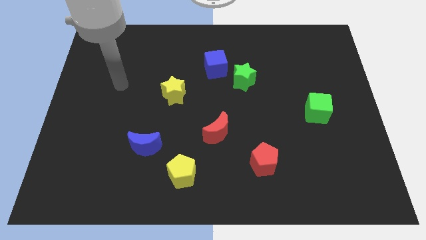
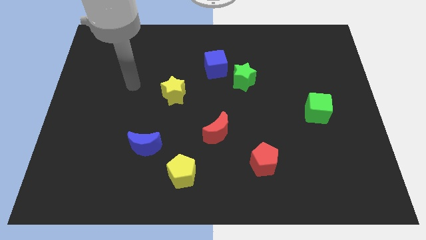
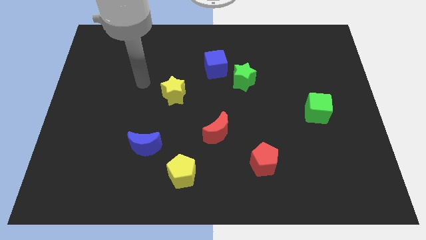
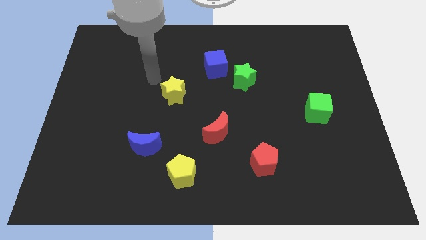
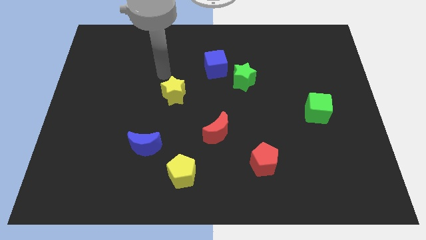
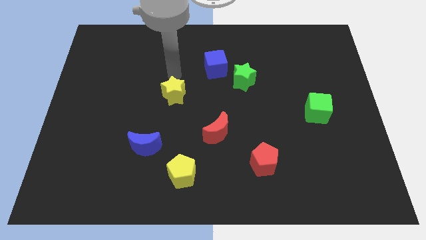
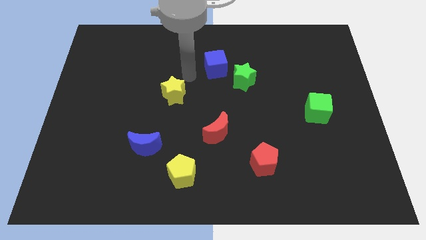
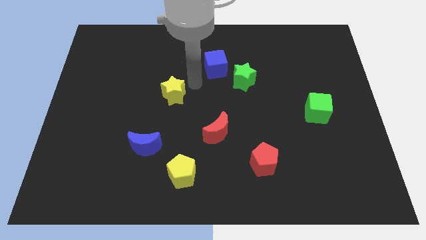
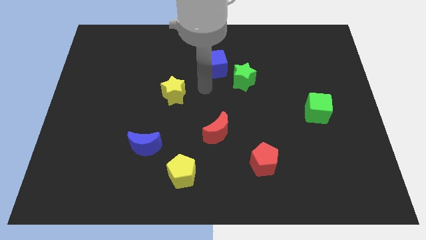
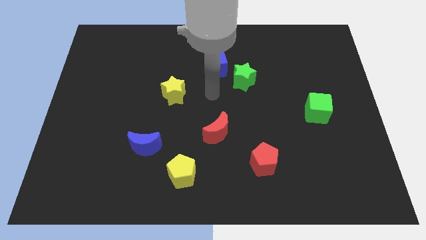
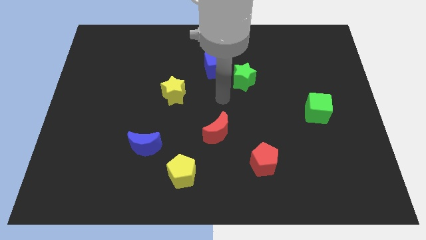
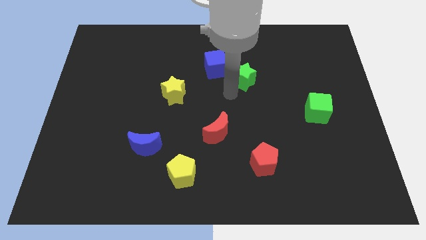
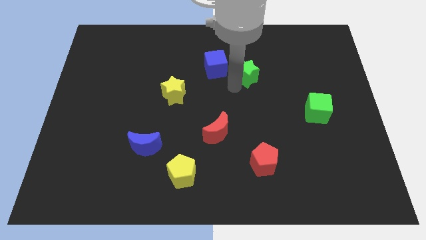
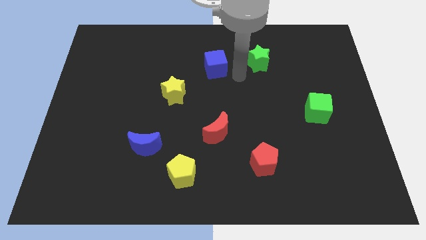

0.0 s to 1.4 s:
pull the blue cube apart from the green star

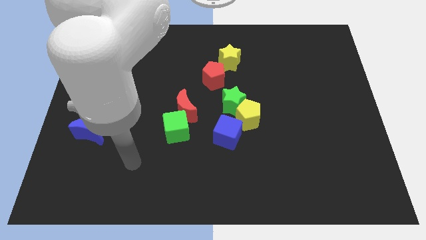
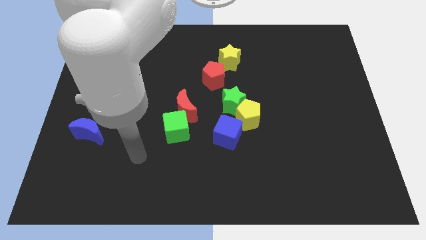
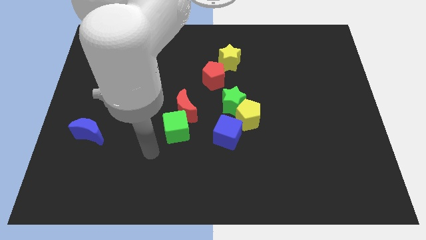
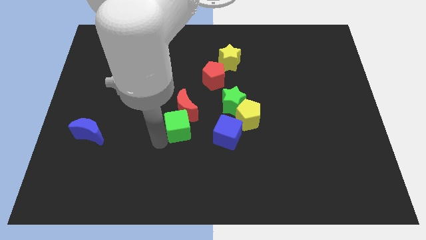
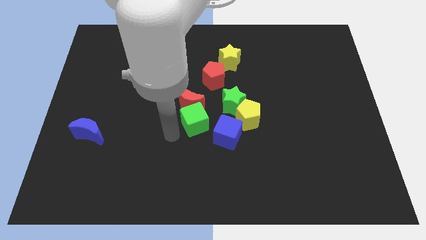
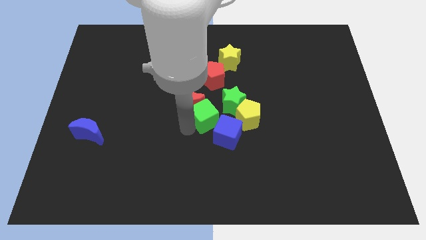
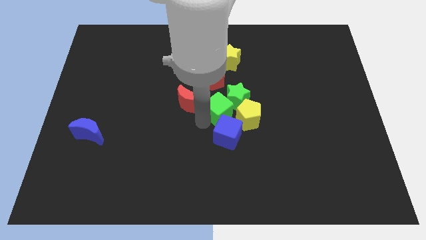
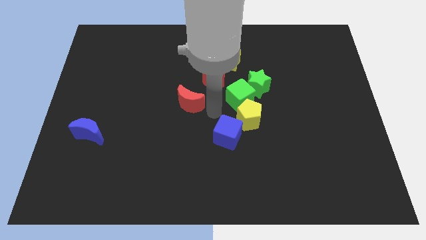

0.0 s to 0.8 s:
pull the red moon apart from the green cube

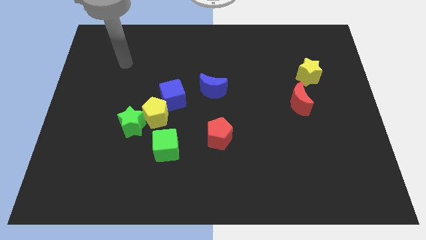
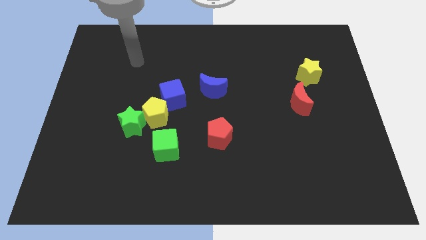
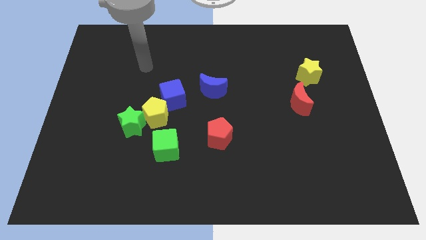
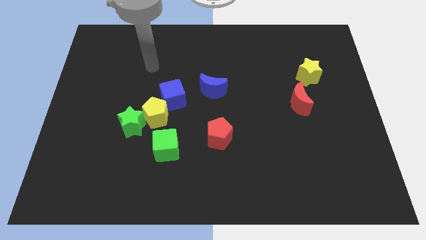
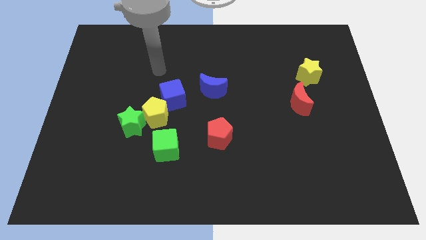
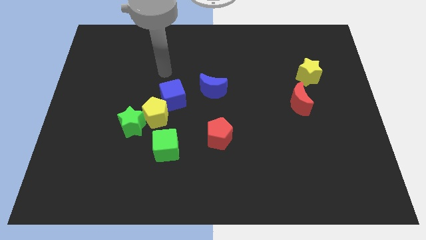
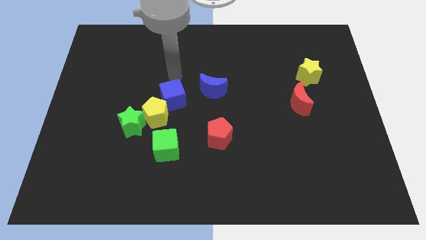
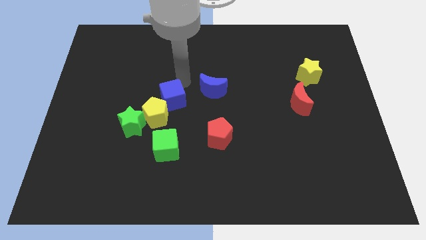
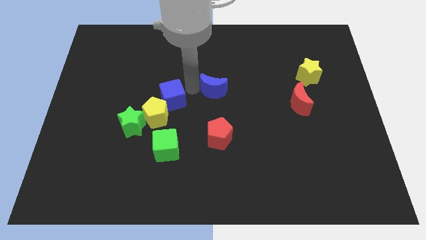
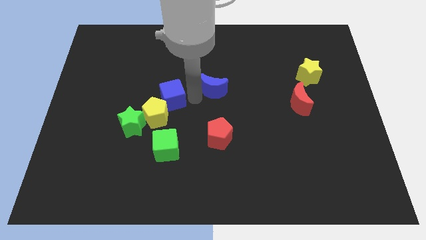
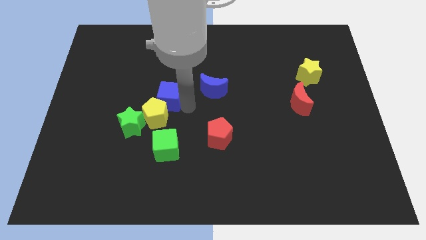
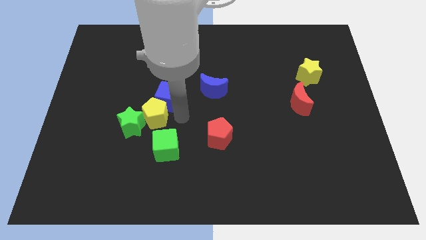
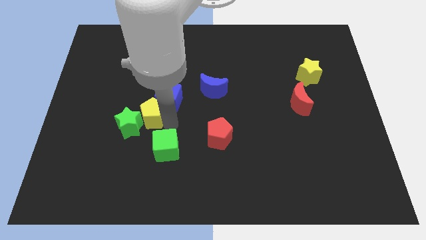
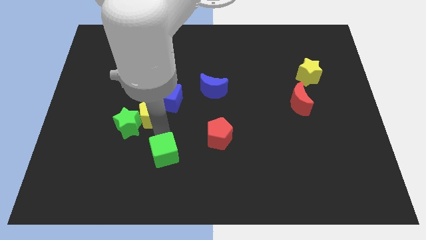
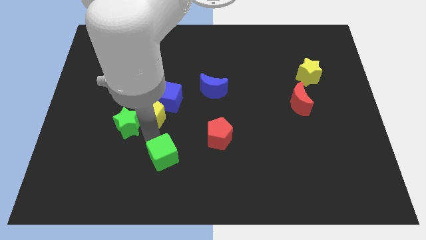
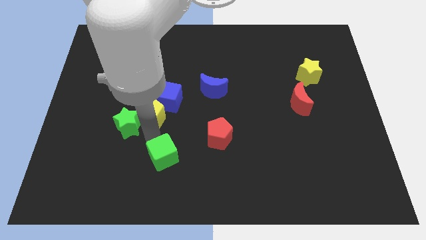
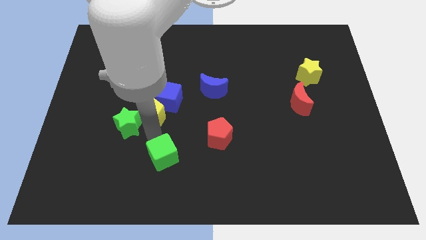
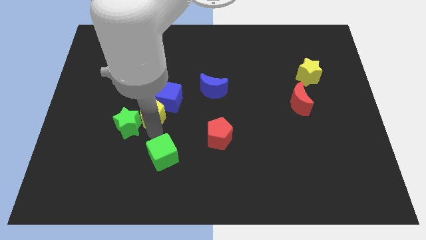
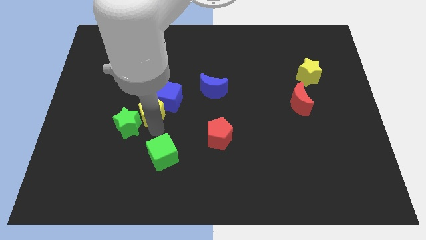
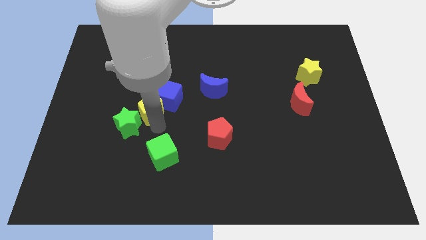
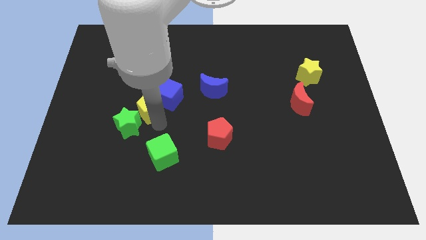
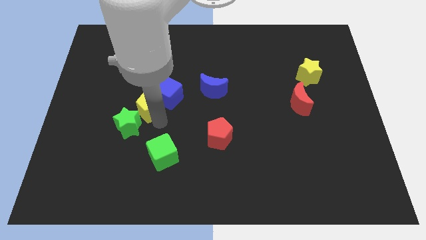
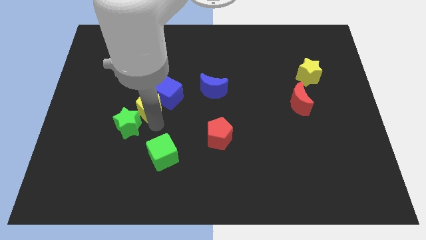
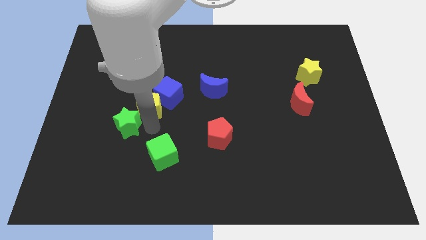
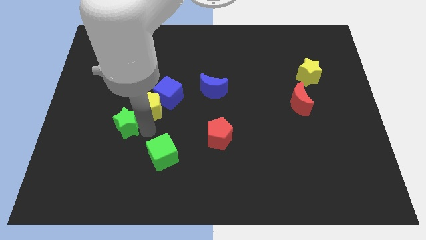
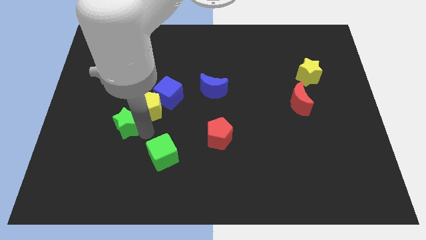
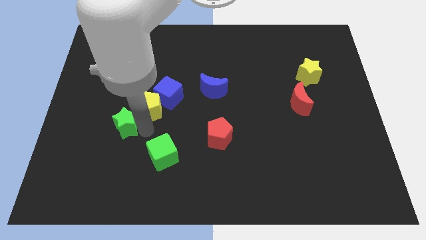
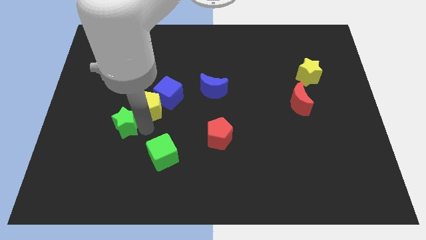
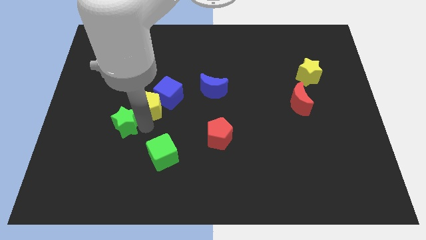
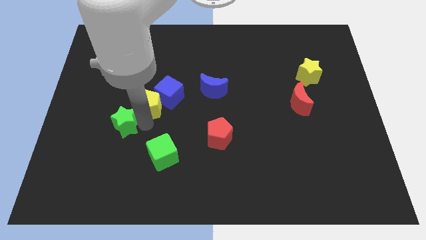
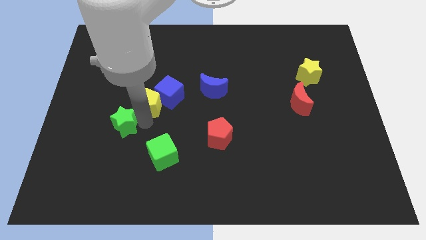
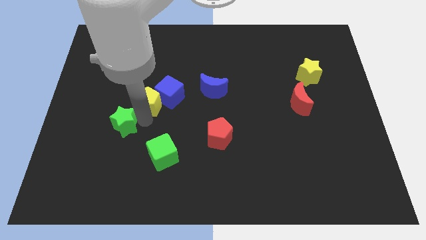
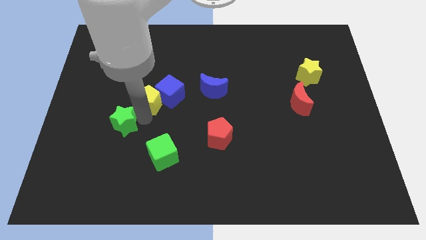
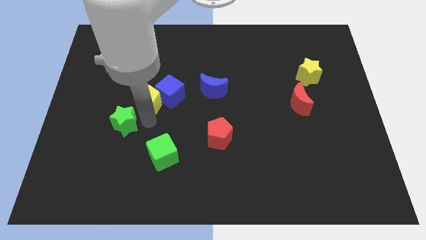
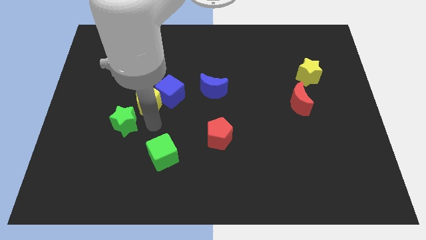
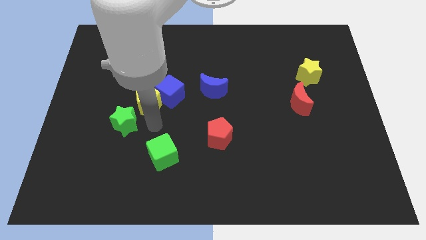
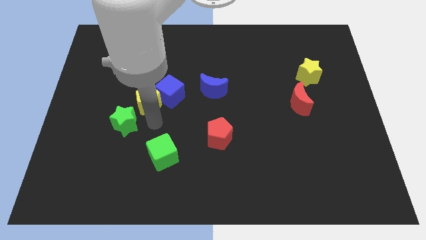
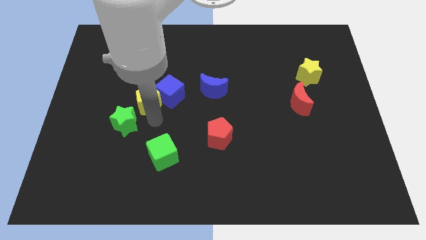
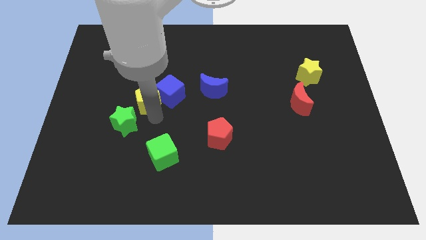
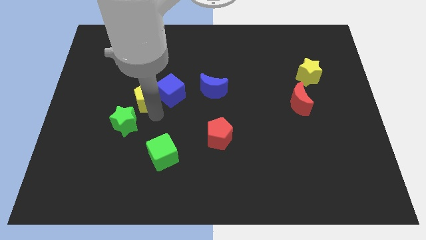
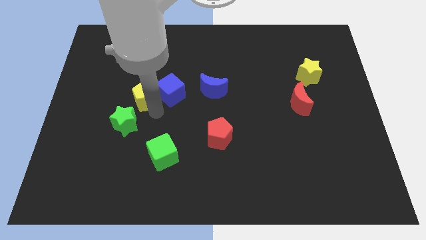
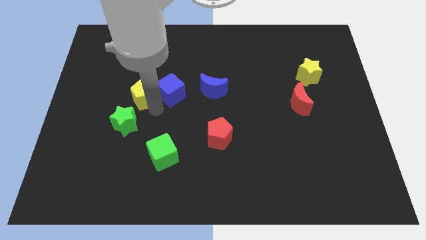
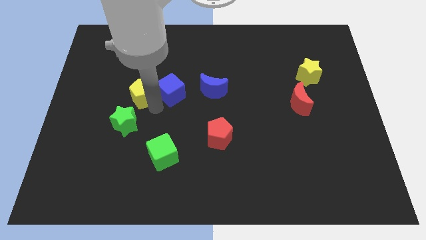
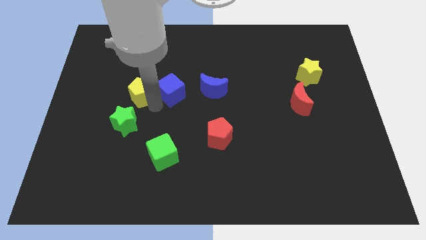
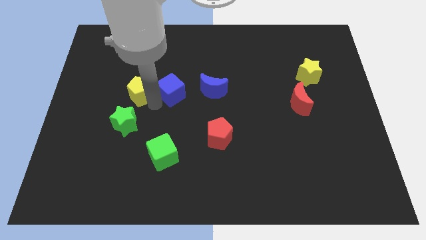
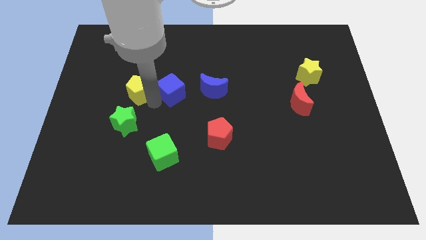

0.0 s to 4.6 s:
pull the yellow pentagon apart from the green star, blue cube, and green cube

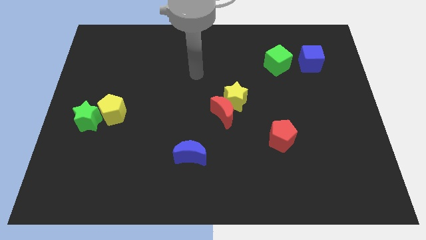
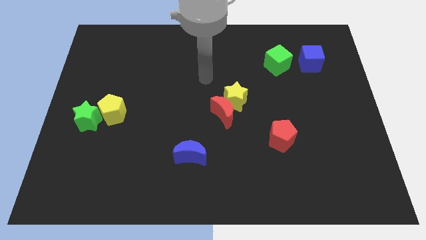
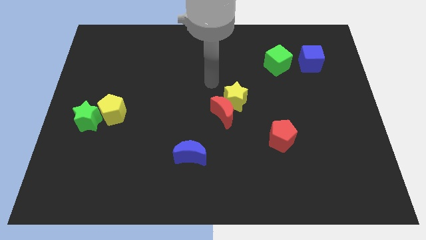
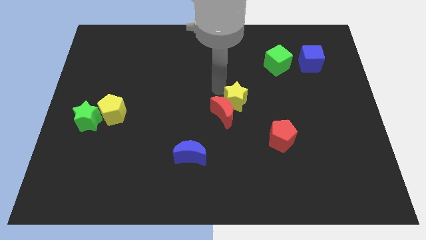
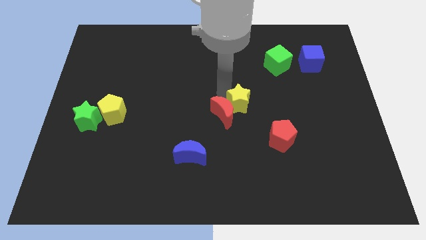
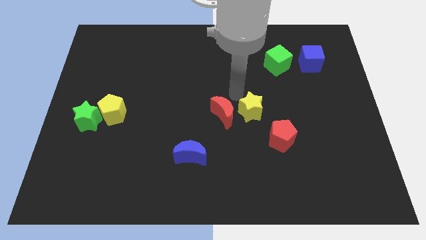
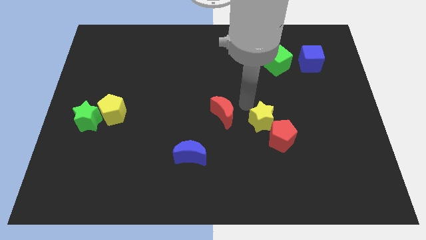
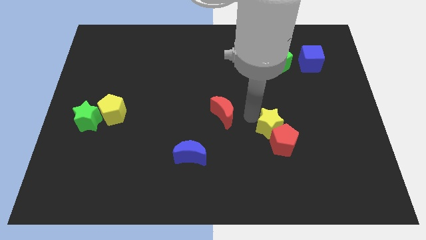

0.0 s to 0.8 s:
separate the red moon from the yellow star

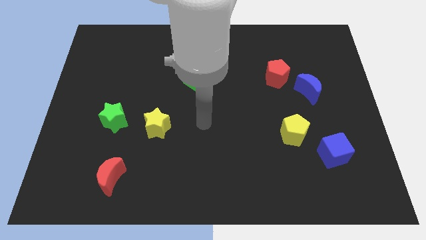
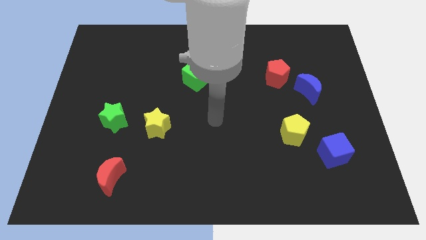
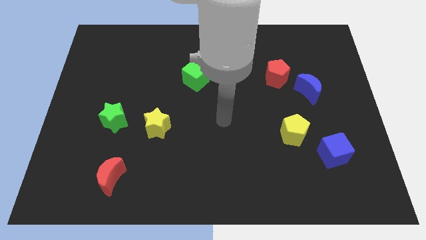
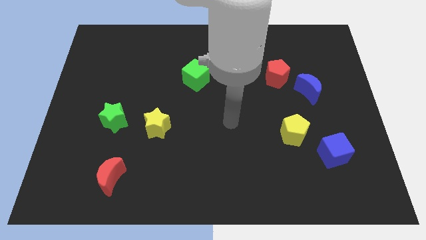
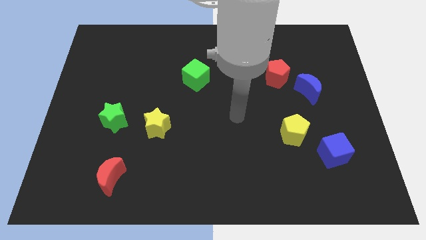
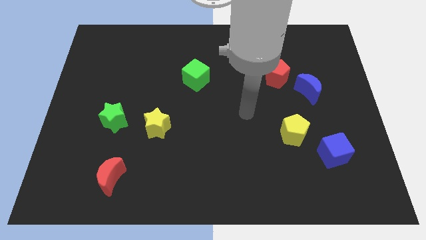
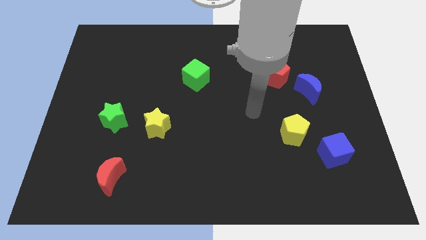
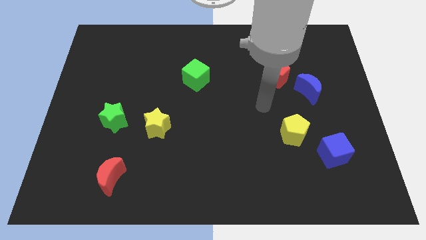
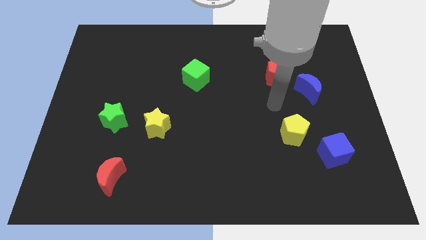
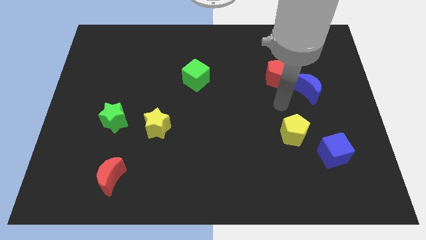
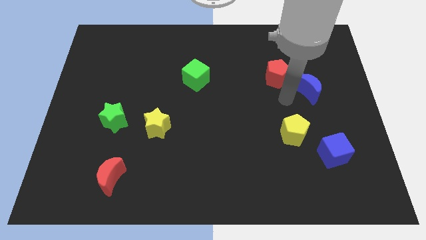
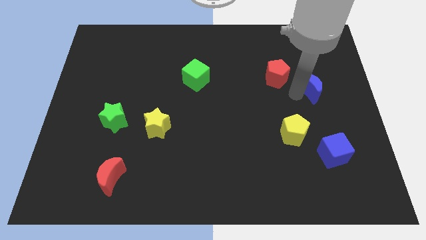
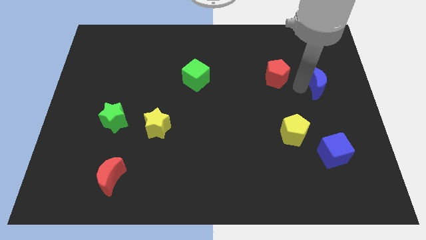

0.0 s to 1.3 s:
move the red pentagon away from the blue moon

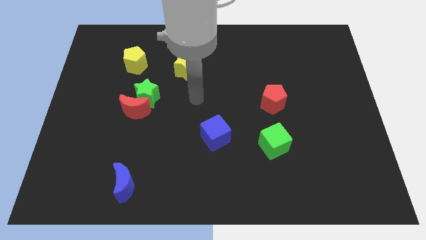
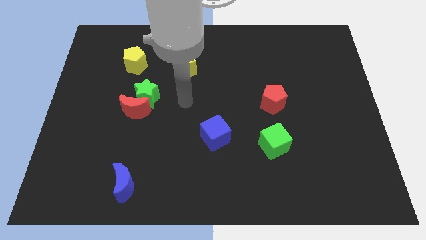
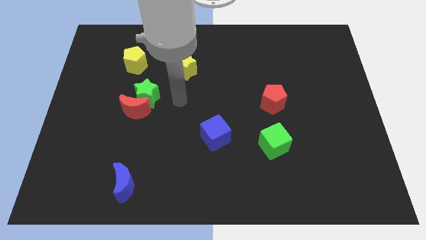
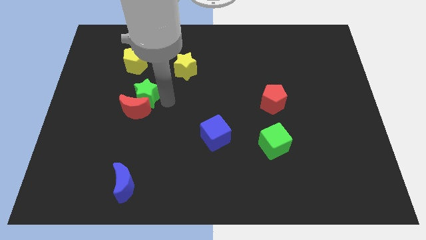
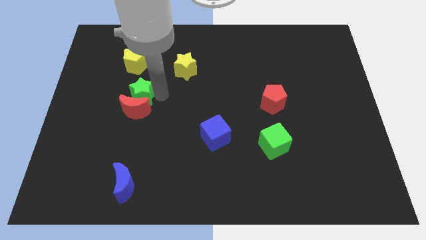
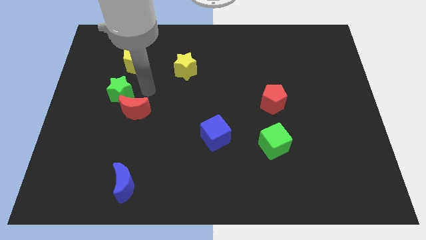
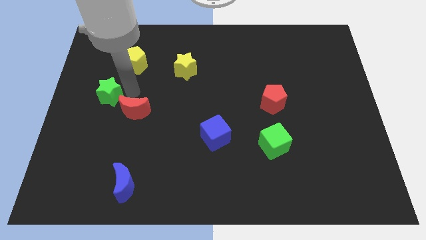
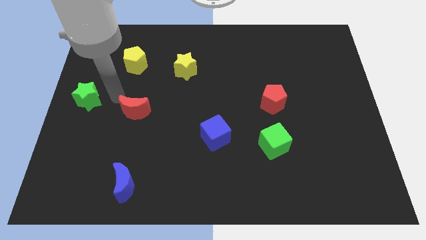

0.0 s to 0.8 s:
move the red moon away from the green star
